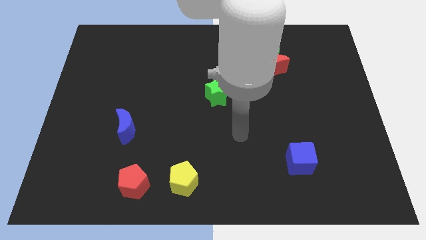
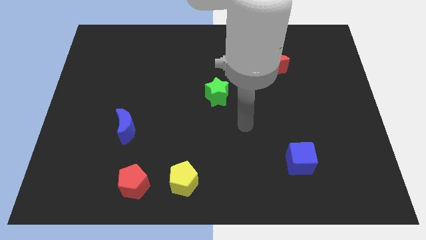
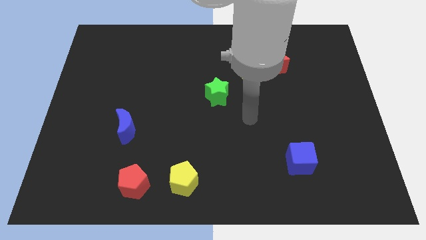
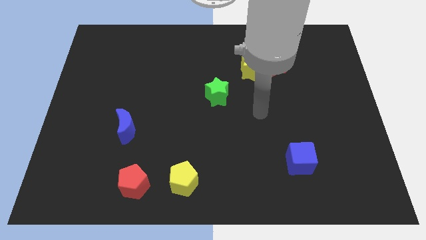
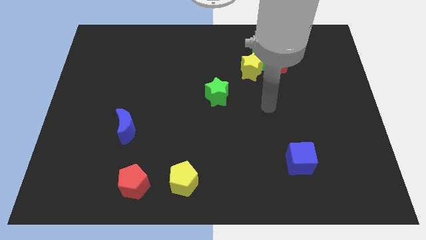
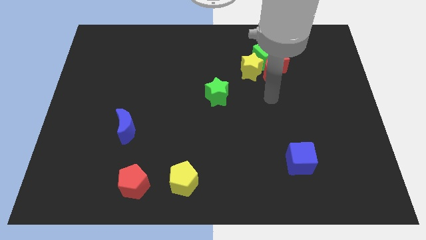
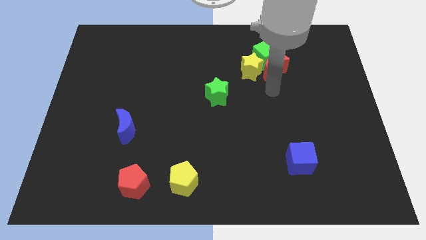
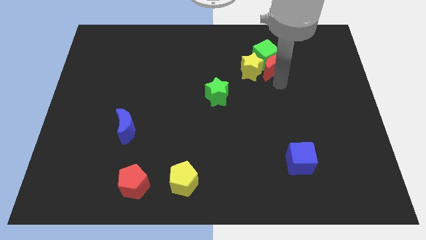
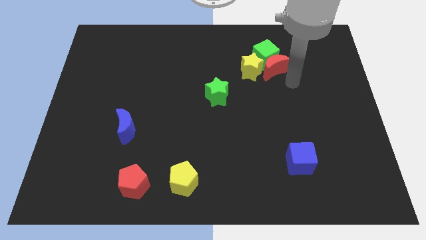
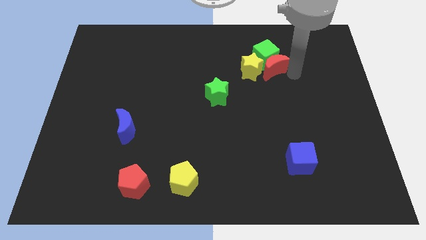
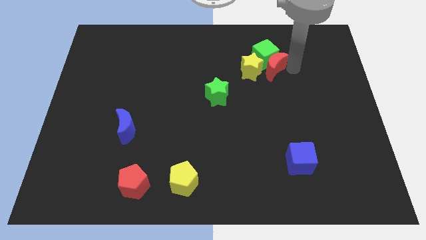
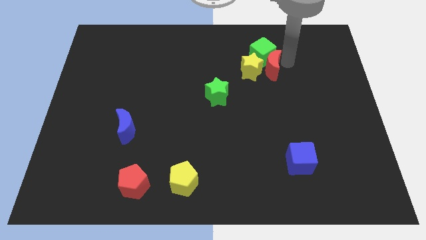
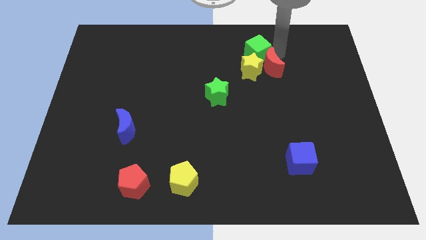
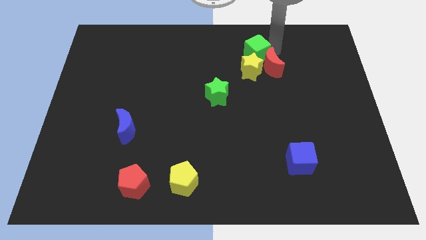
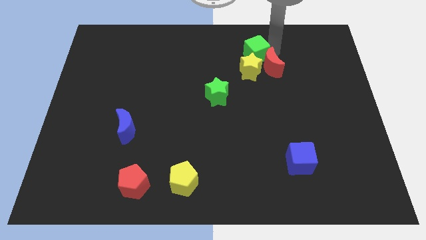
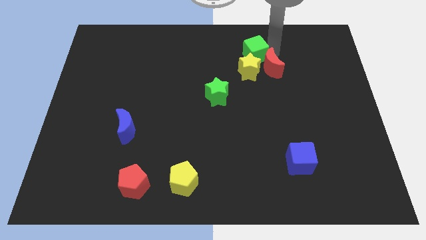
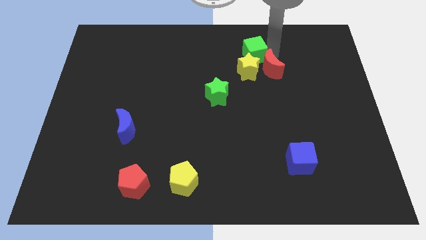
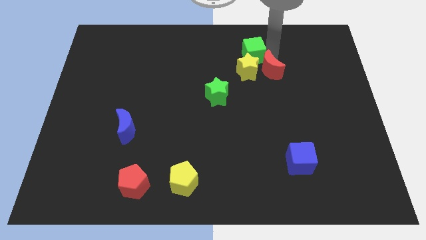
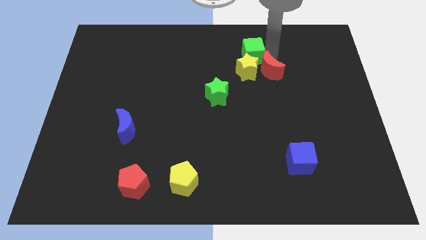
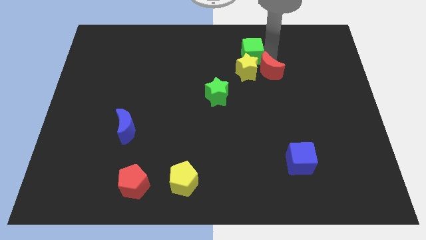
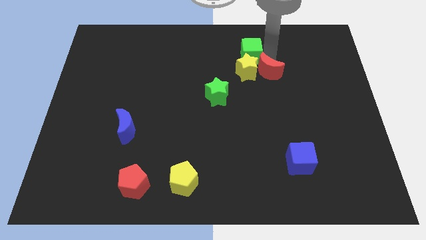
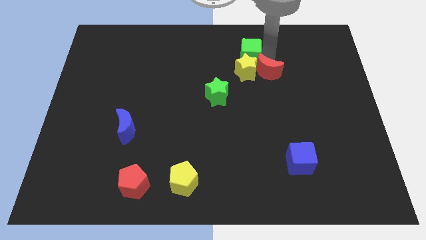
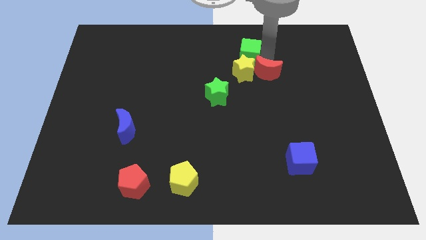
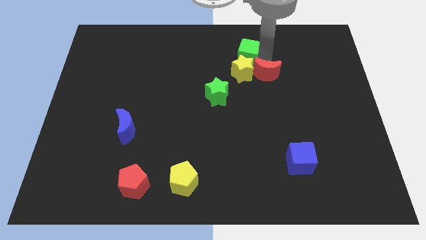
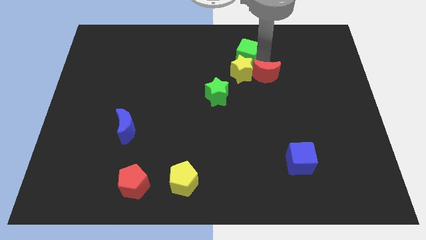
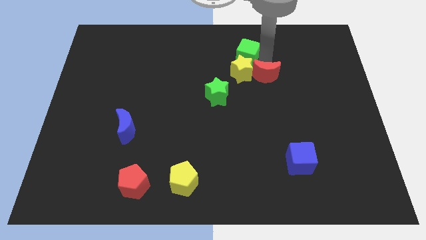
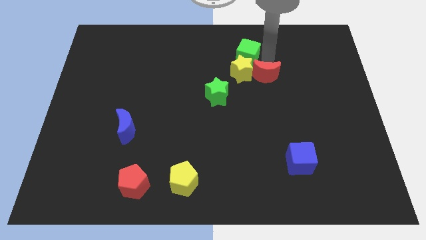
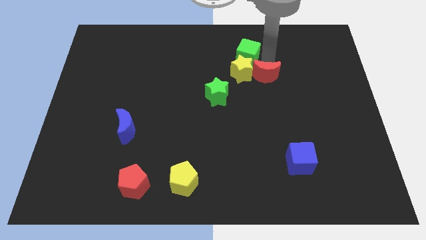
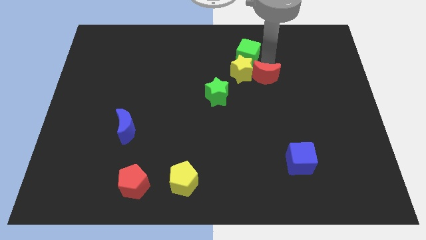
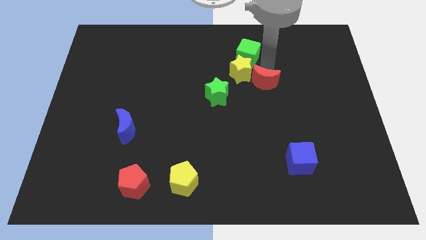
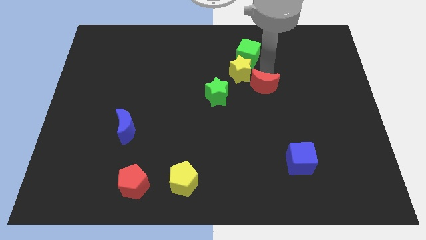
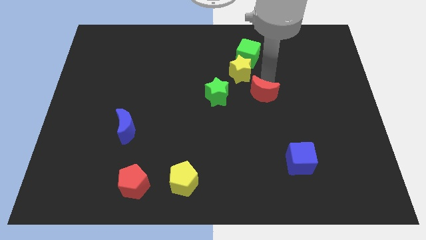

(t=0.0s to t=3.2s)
slightly move the red moon down and left diagonally

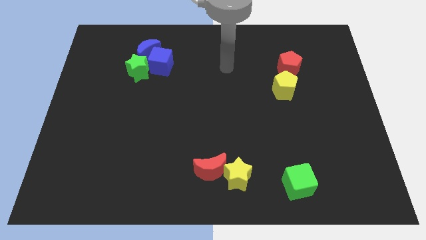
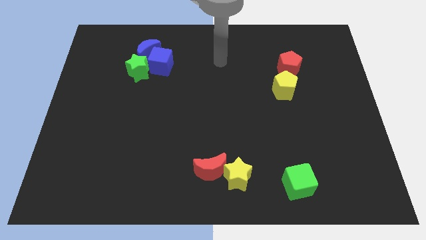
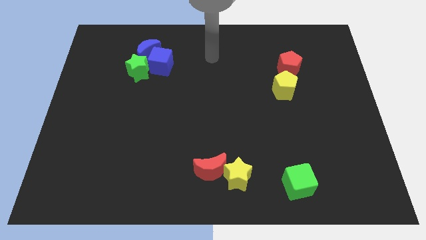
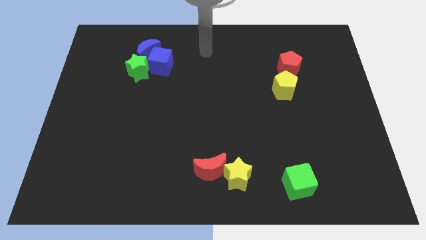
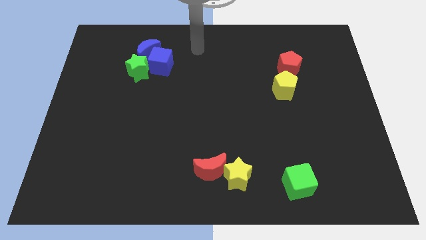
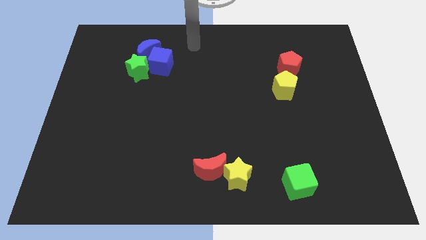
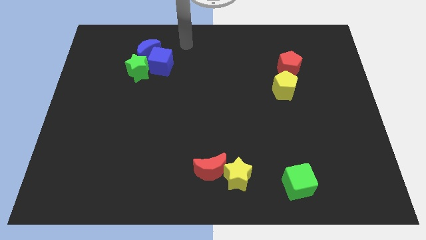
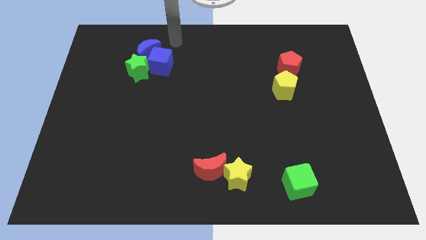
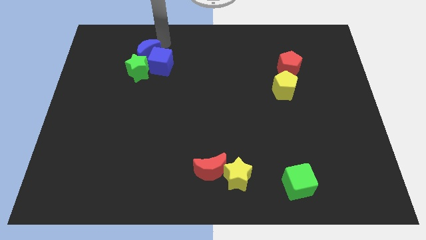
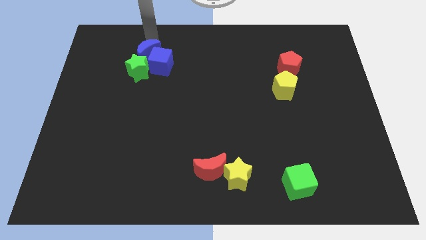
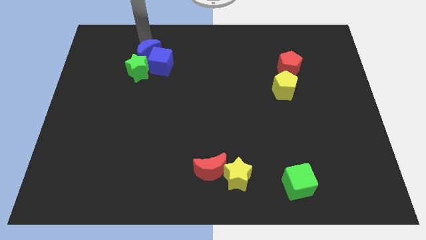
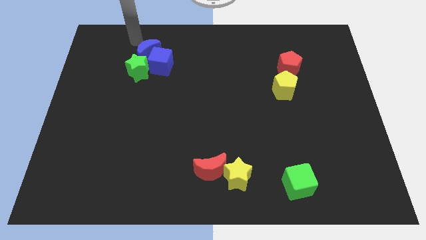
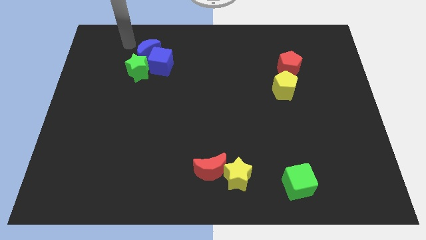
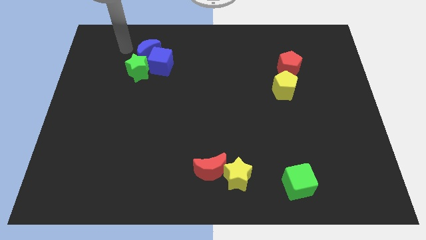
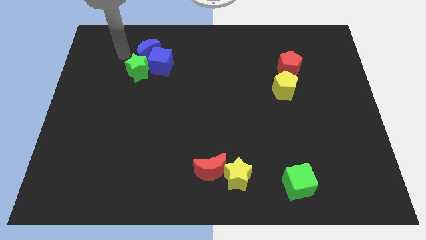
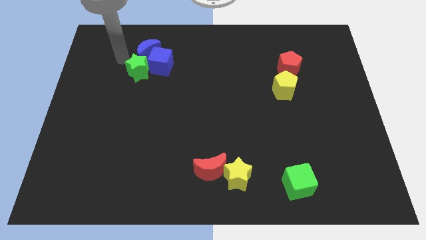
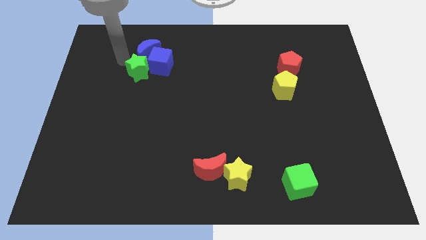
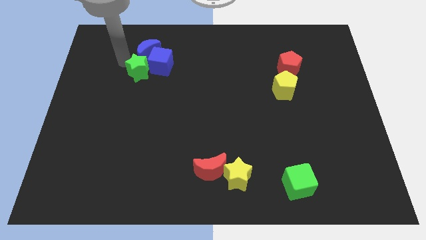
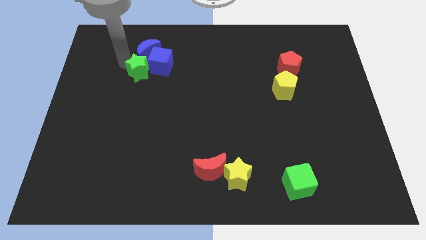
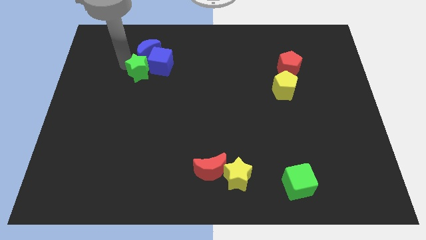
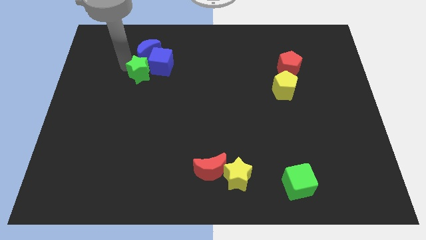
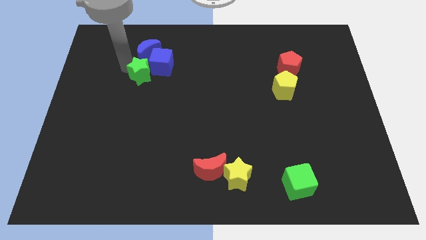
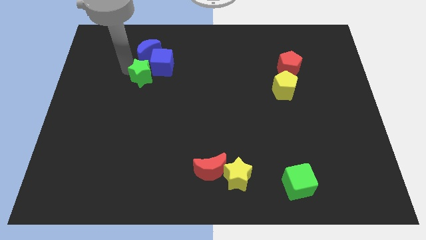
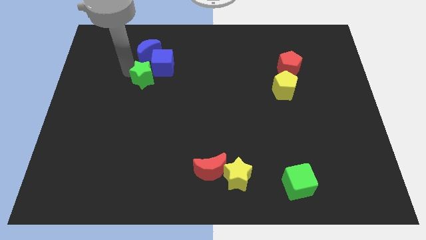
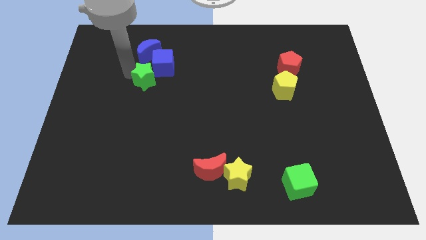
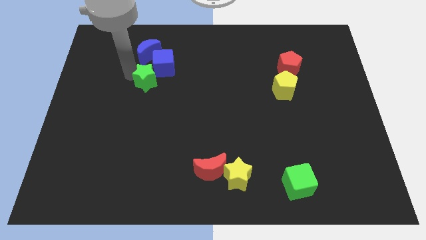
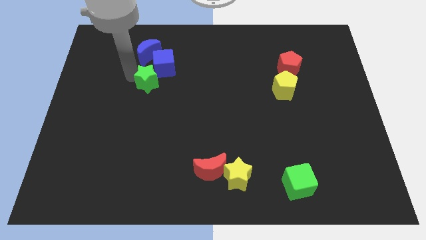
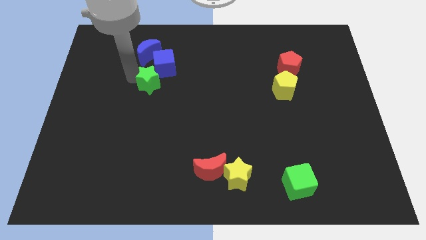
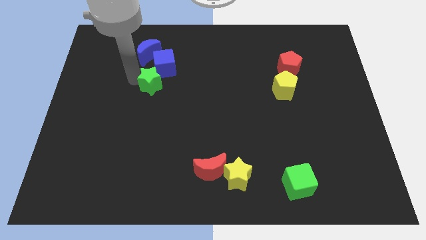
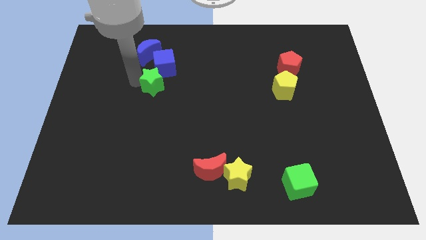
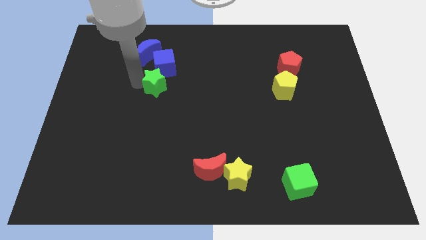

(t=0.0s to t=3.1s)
slide the green star downwards and to the right diagonally a little

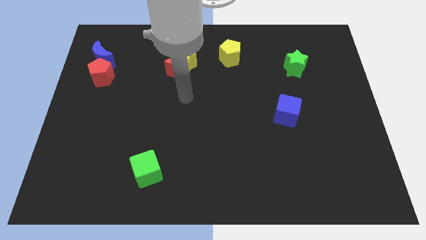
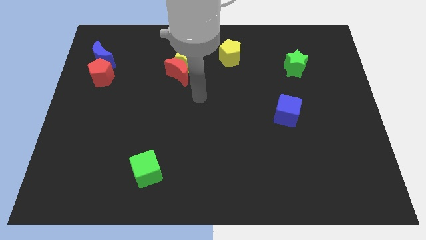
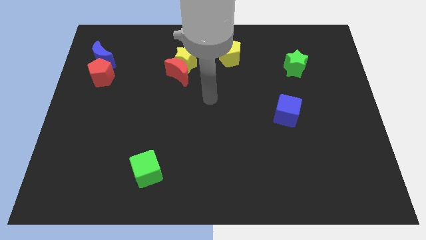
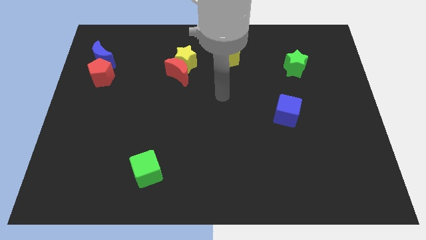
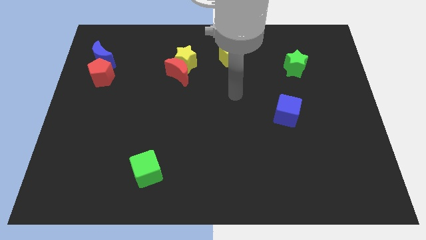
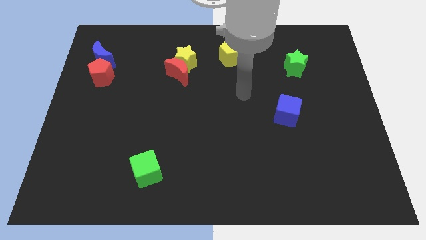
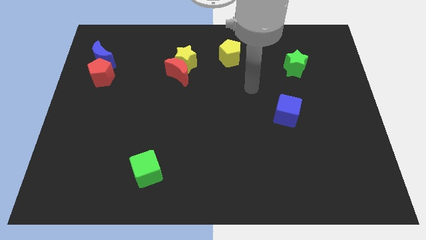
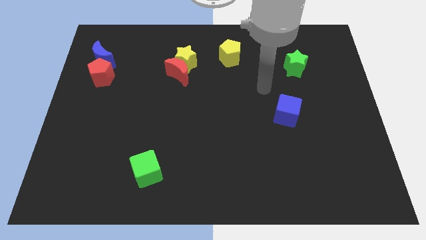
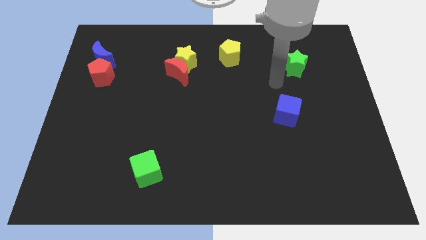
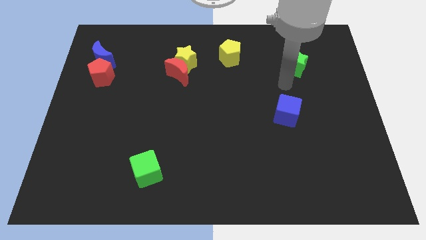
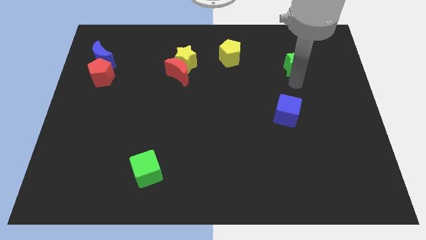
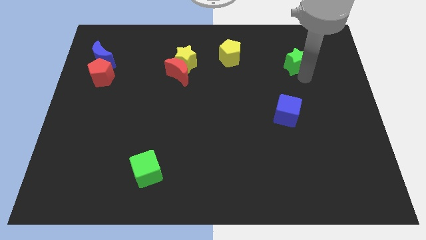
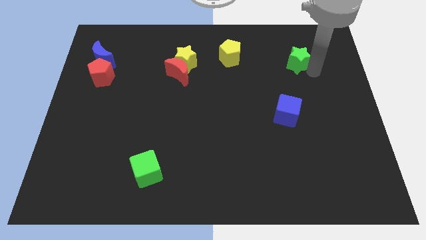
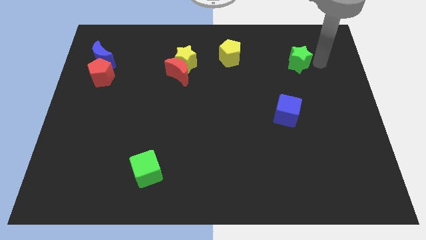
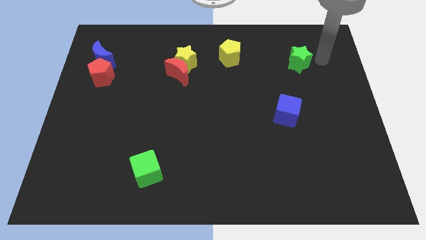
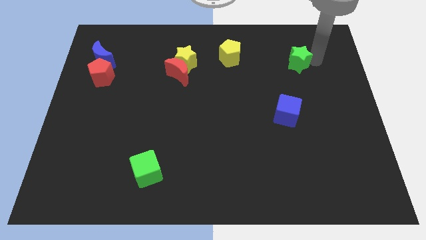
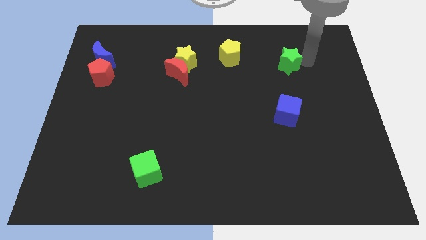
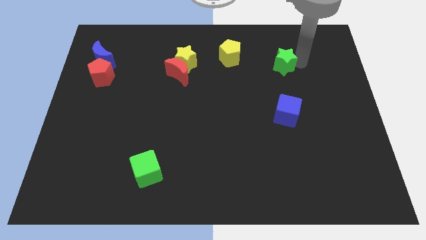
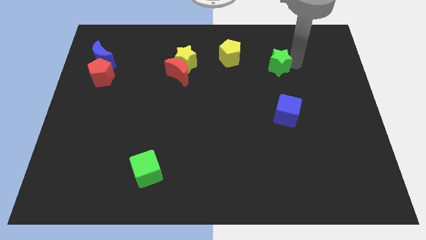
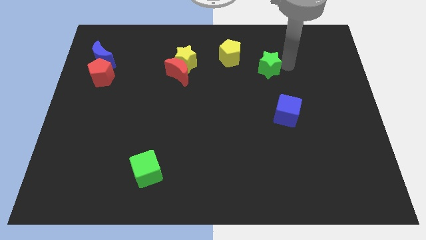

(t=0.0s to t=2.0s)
slightly slide the green star left
